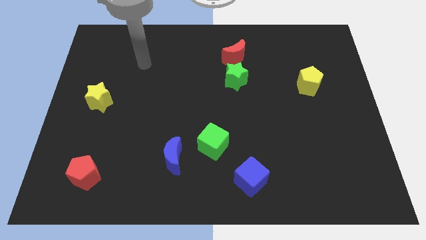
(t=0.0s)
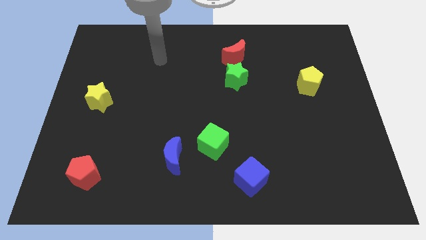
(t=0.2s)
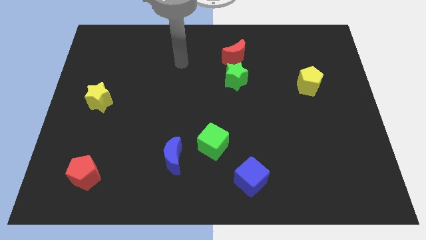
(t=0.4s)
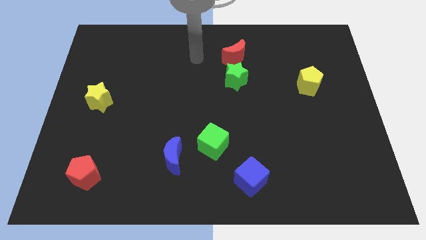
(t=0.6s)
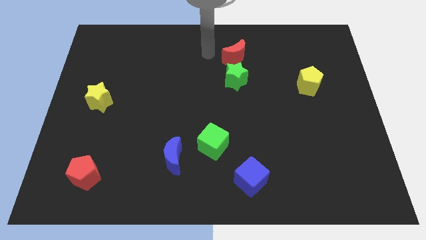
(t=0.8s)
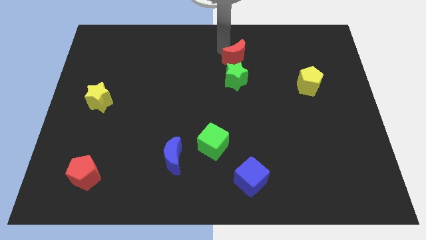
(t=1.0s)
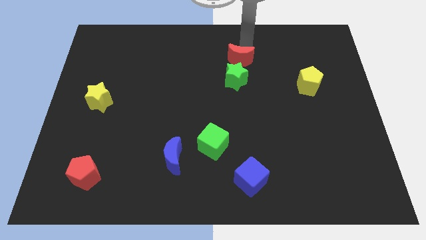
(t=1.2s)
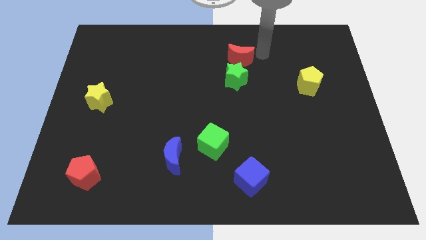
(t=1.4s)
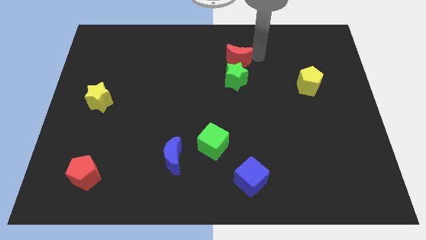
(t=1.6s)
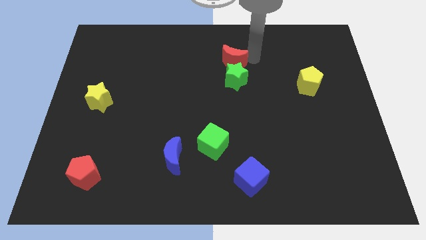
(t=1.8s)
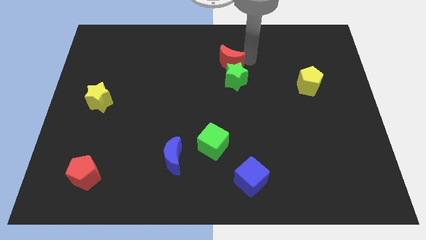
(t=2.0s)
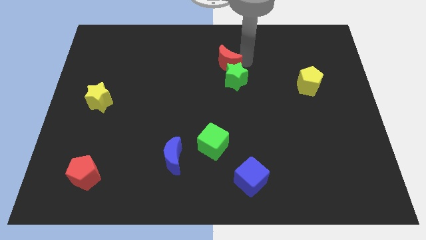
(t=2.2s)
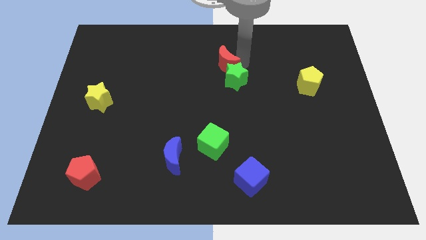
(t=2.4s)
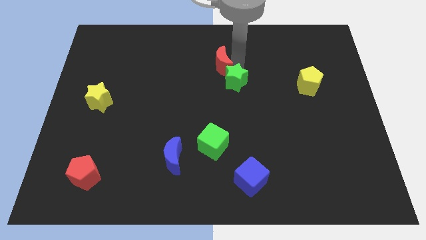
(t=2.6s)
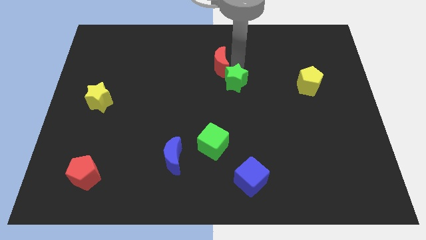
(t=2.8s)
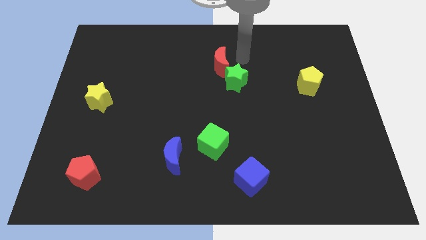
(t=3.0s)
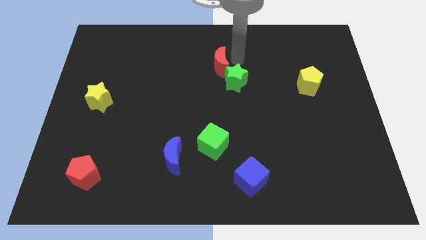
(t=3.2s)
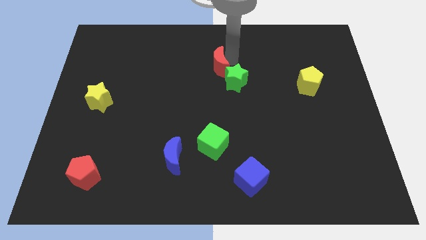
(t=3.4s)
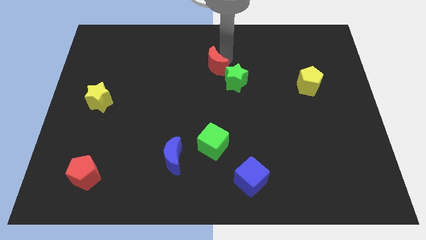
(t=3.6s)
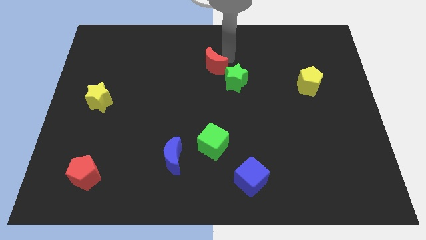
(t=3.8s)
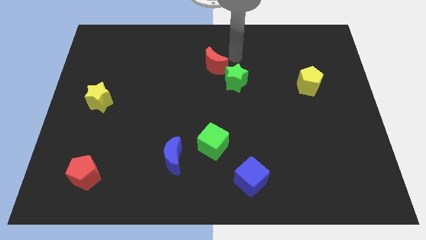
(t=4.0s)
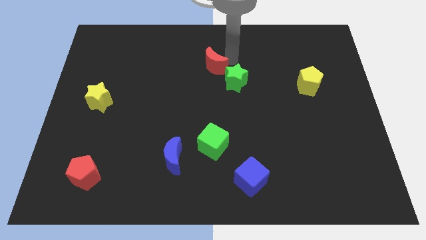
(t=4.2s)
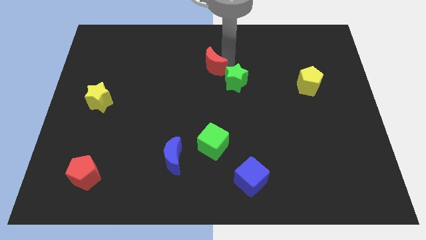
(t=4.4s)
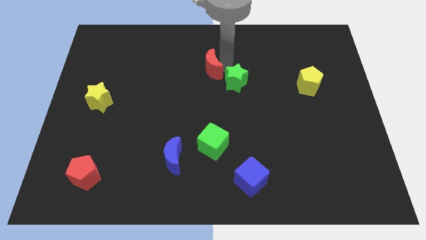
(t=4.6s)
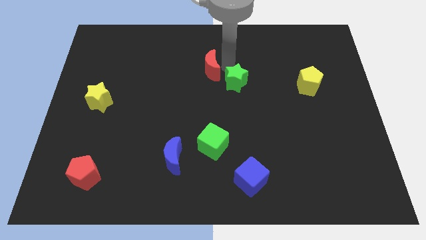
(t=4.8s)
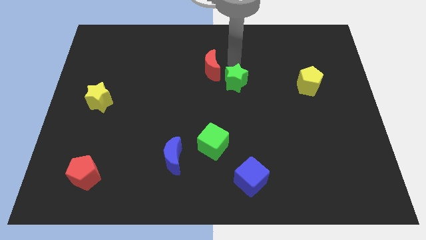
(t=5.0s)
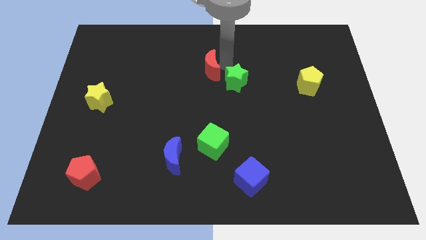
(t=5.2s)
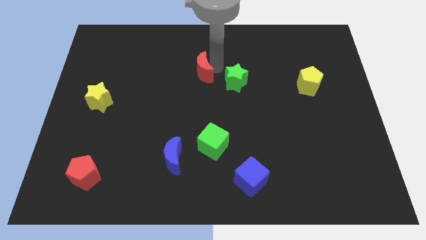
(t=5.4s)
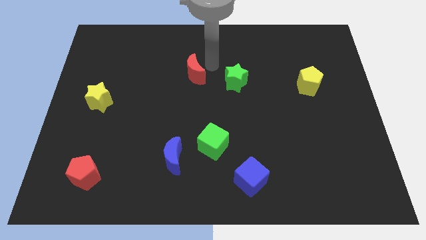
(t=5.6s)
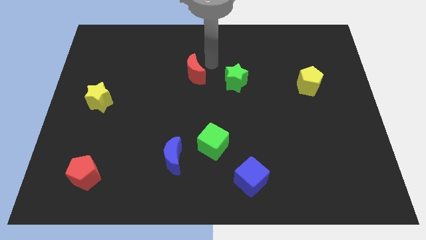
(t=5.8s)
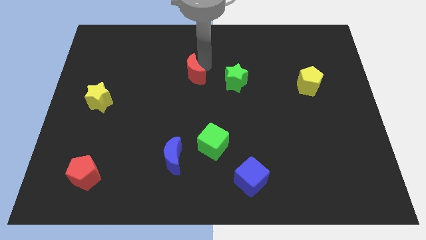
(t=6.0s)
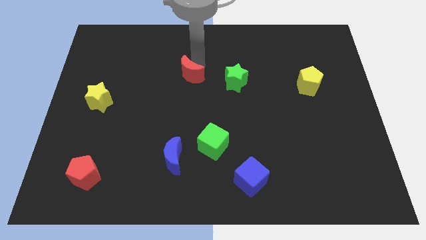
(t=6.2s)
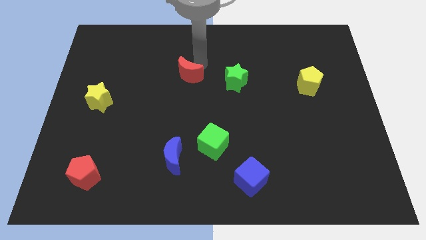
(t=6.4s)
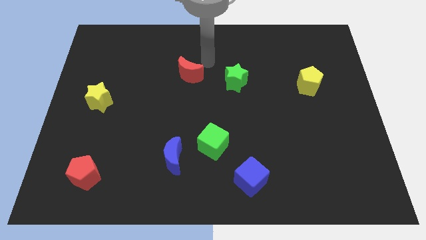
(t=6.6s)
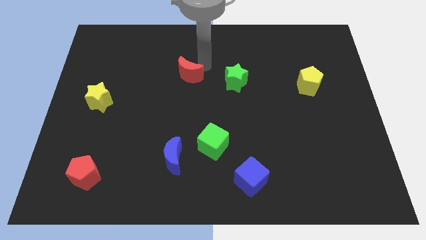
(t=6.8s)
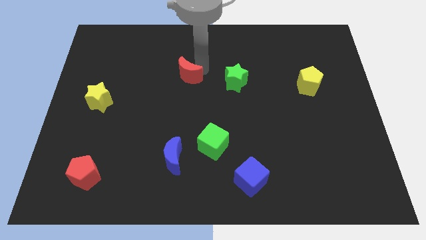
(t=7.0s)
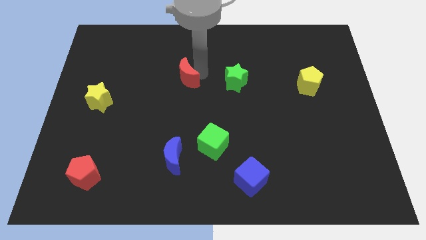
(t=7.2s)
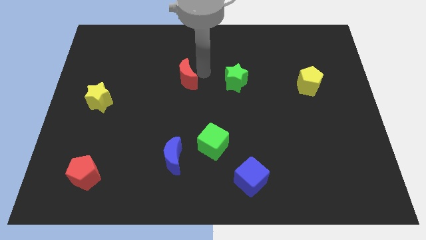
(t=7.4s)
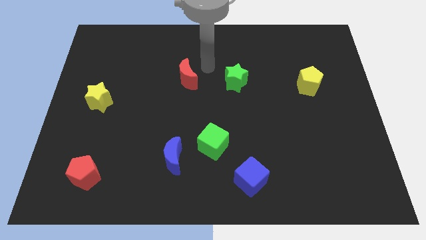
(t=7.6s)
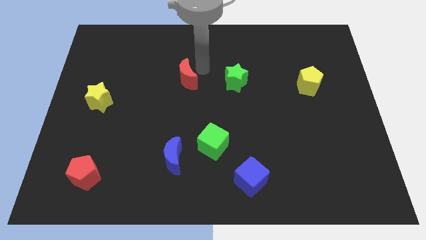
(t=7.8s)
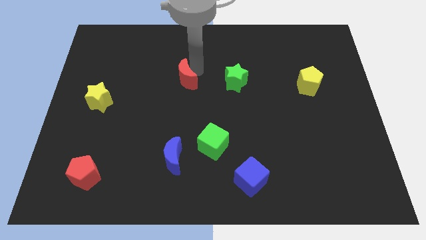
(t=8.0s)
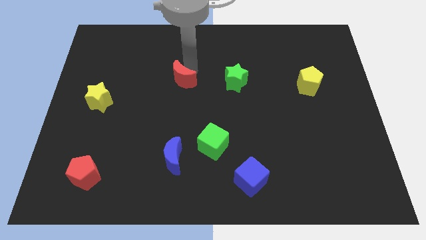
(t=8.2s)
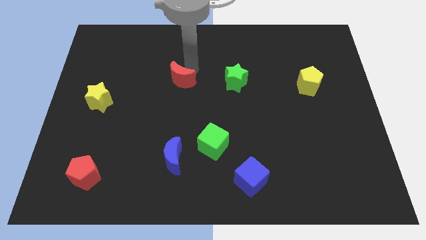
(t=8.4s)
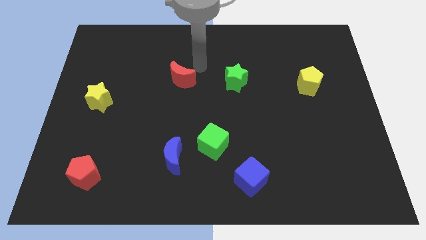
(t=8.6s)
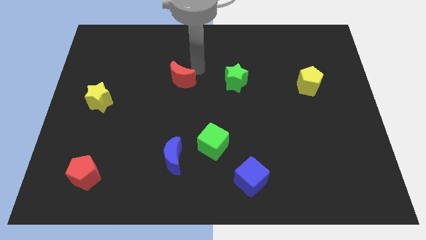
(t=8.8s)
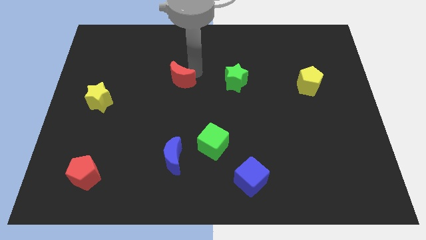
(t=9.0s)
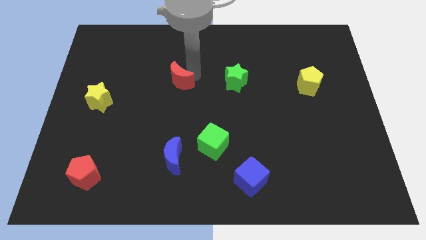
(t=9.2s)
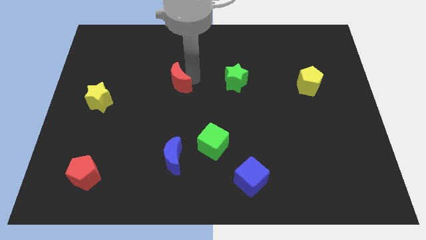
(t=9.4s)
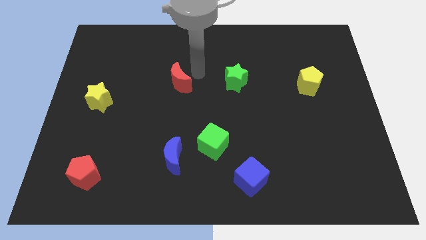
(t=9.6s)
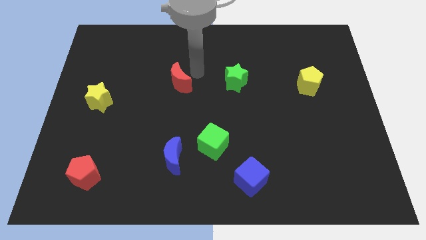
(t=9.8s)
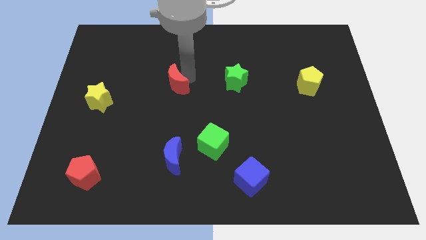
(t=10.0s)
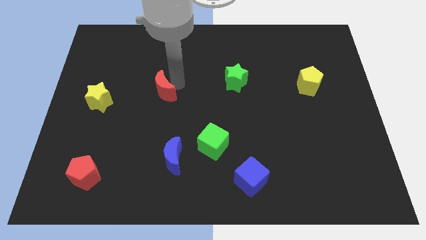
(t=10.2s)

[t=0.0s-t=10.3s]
move the red moon to the right of the yellow star

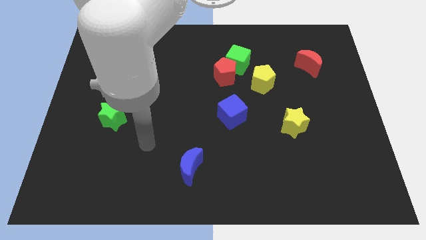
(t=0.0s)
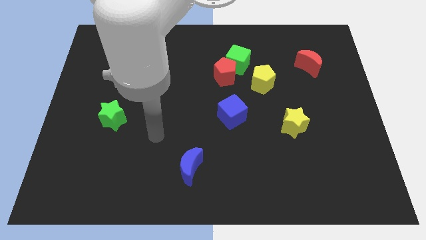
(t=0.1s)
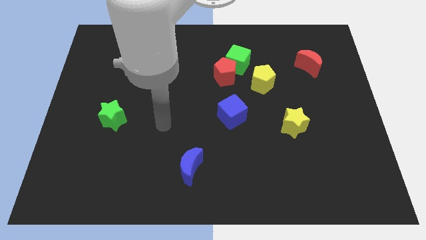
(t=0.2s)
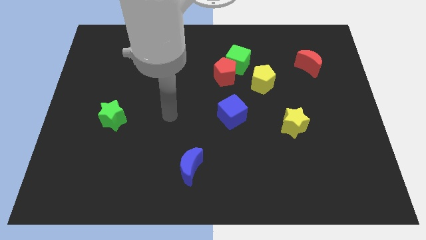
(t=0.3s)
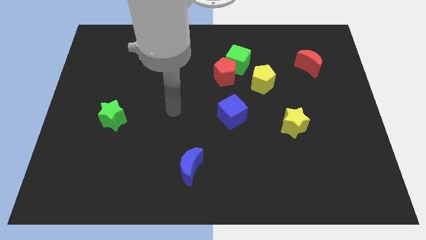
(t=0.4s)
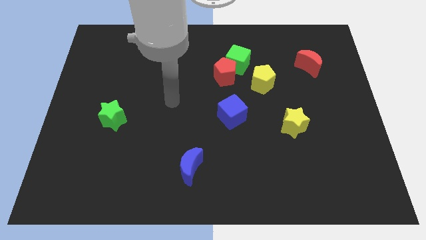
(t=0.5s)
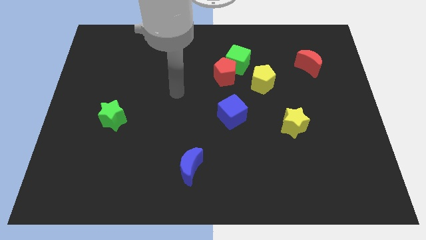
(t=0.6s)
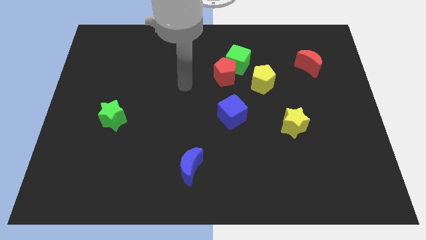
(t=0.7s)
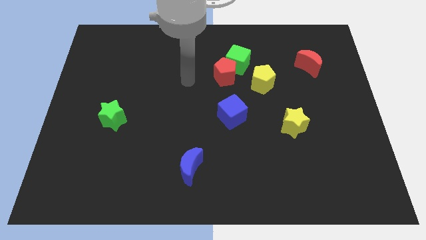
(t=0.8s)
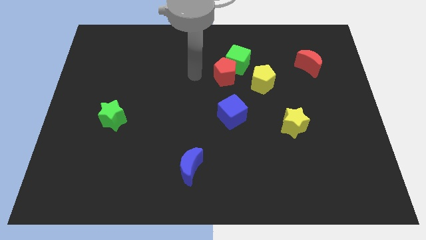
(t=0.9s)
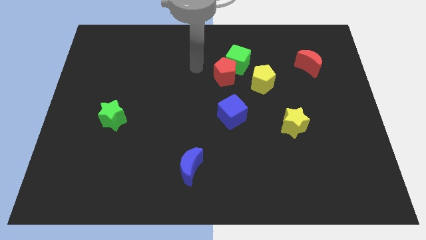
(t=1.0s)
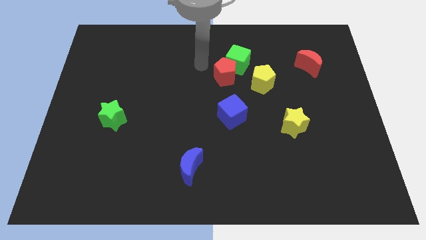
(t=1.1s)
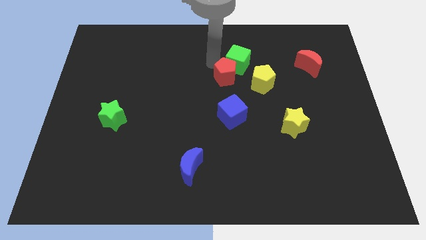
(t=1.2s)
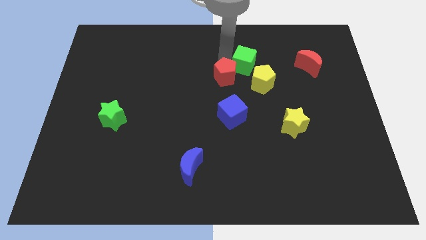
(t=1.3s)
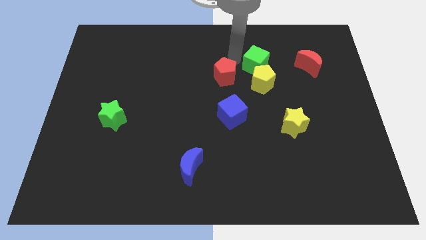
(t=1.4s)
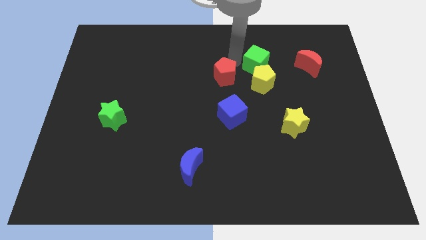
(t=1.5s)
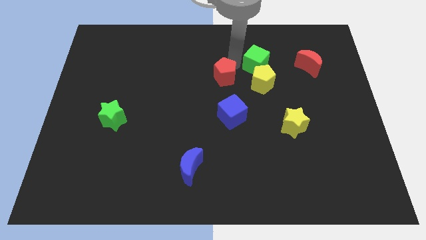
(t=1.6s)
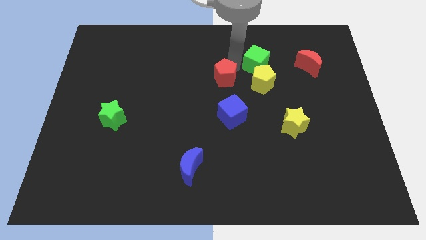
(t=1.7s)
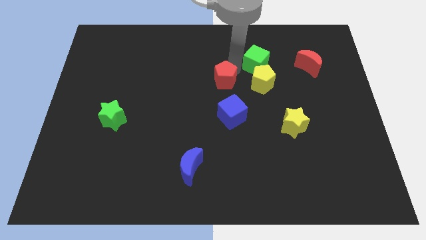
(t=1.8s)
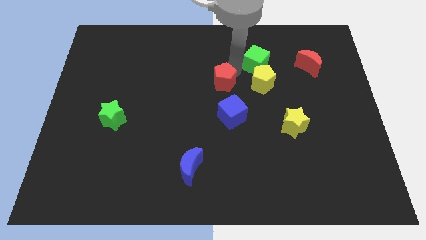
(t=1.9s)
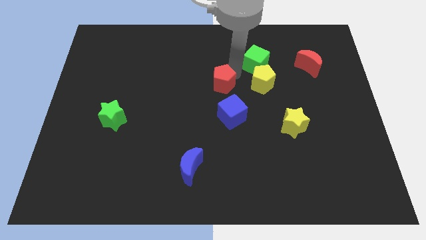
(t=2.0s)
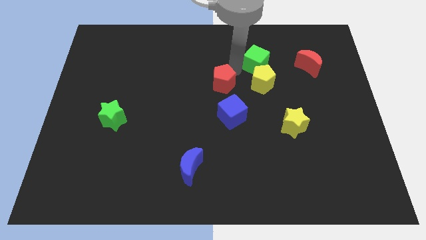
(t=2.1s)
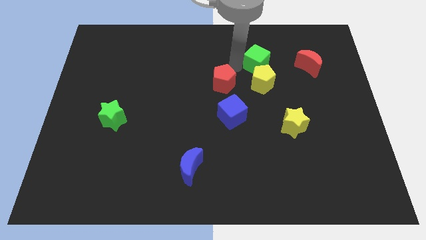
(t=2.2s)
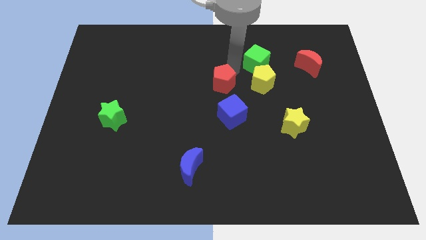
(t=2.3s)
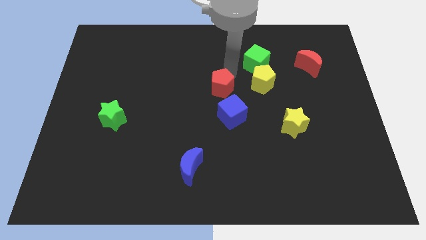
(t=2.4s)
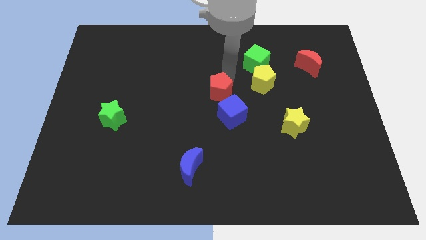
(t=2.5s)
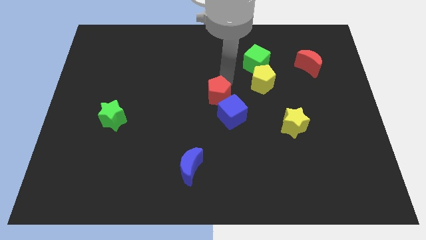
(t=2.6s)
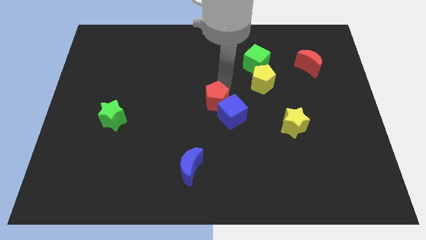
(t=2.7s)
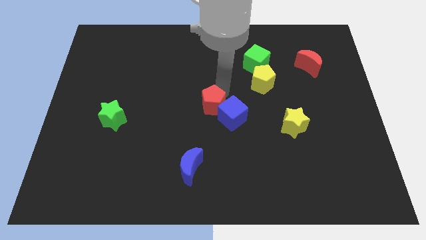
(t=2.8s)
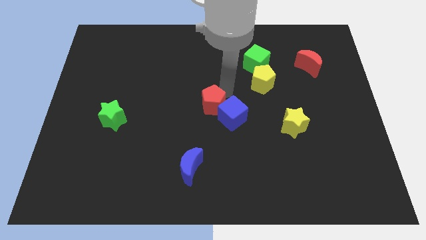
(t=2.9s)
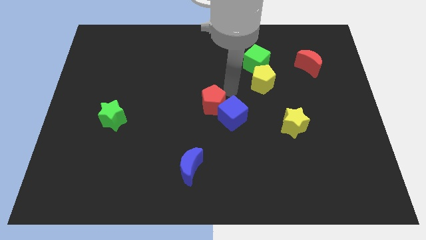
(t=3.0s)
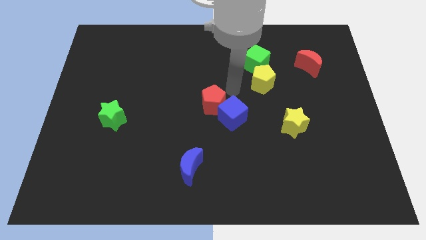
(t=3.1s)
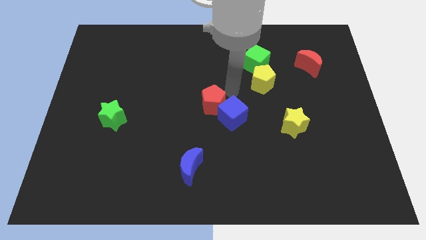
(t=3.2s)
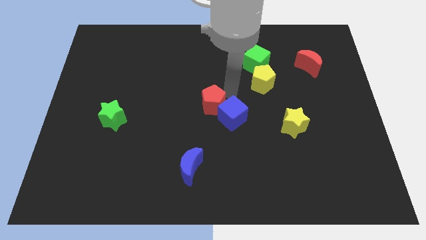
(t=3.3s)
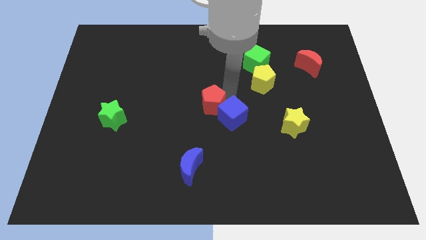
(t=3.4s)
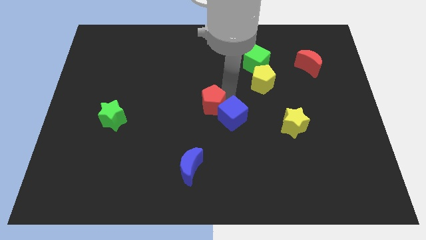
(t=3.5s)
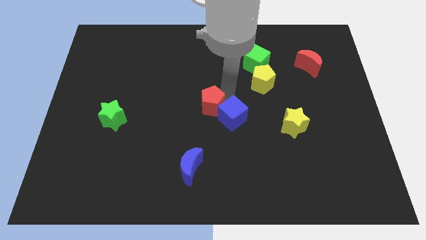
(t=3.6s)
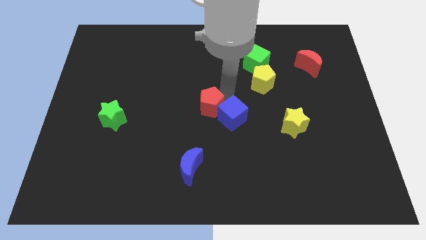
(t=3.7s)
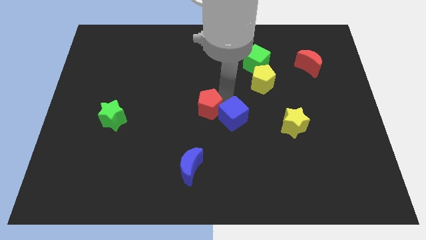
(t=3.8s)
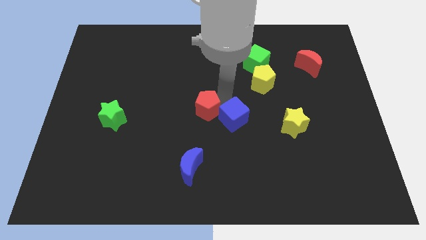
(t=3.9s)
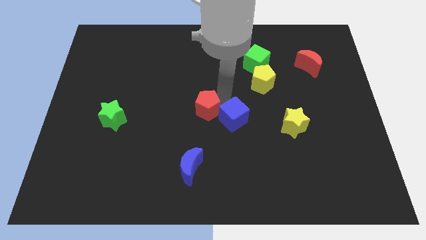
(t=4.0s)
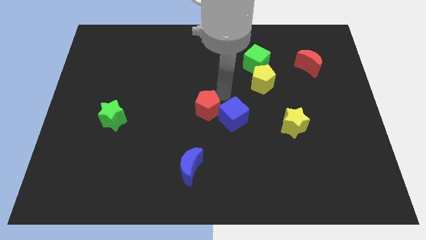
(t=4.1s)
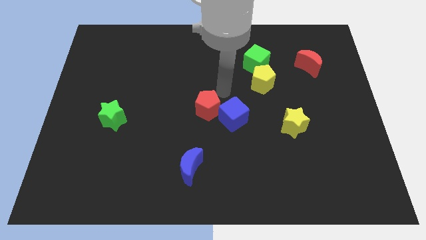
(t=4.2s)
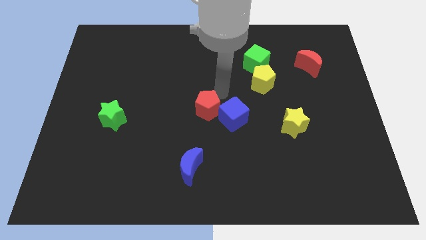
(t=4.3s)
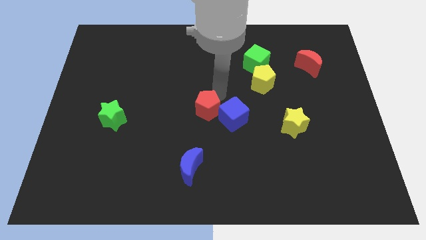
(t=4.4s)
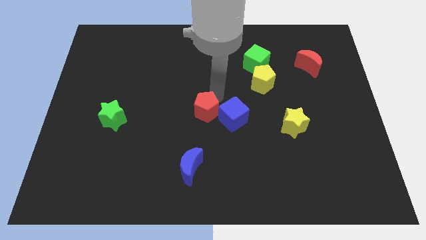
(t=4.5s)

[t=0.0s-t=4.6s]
push the red pentagon to the top of the blue moon
